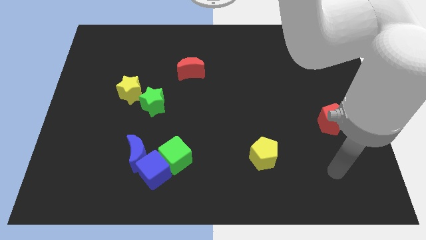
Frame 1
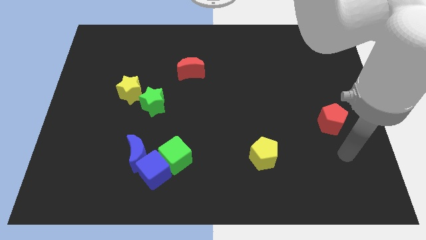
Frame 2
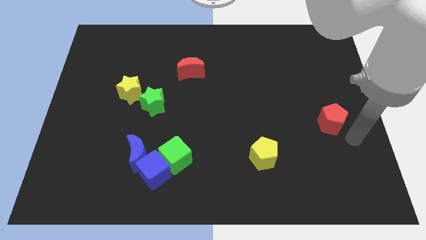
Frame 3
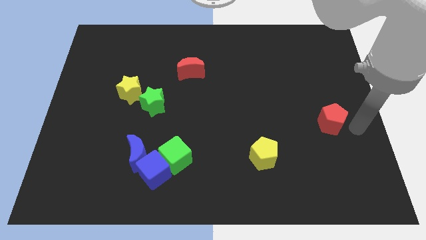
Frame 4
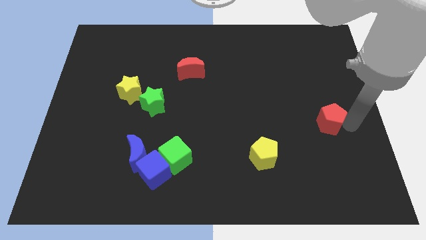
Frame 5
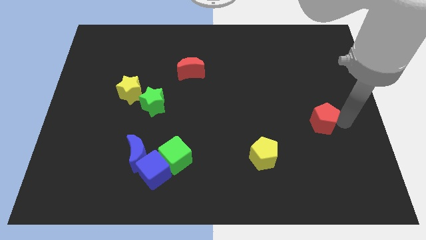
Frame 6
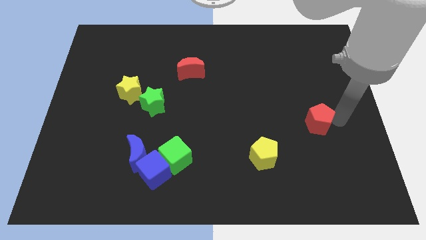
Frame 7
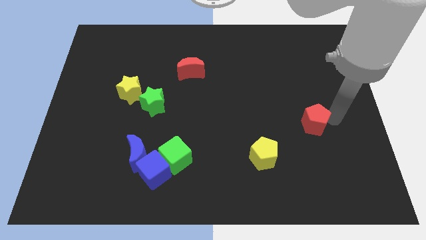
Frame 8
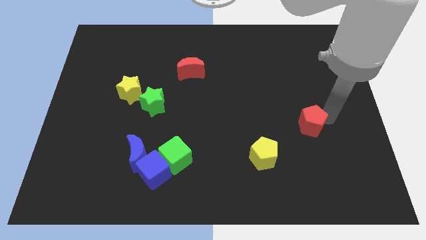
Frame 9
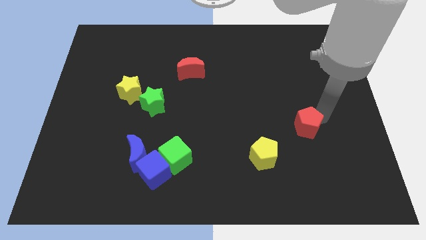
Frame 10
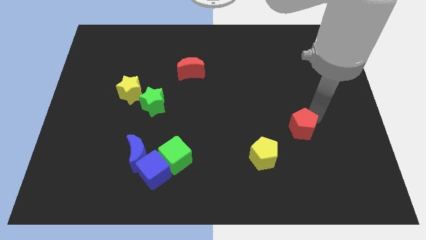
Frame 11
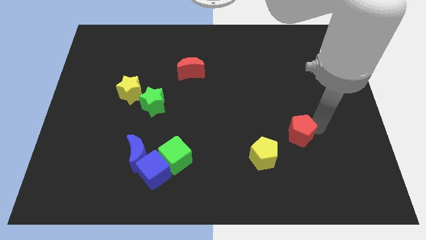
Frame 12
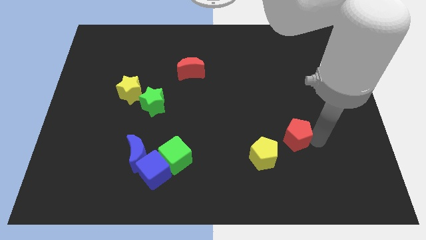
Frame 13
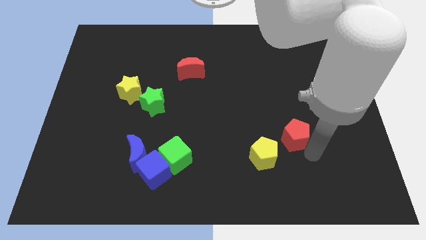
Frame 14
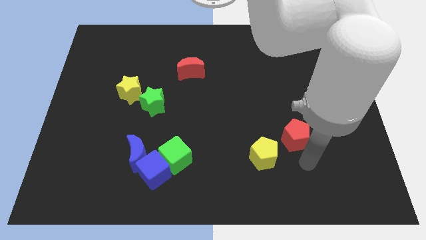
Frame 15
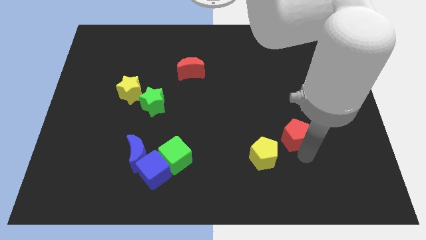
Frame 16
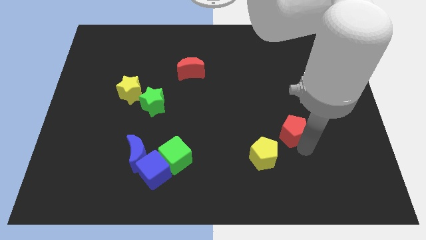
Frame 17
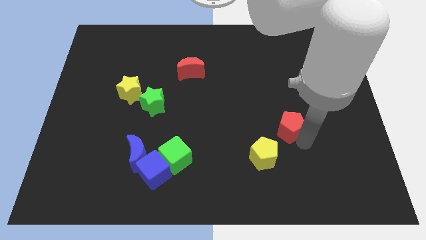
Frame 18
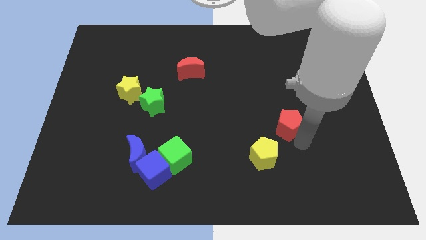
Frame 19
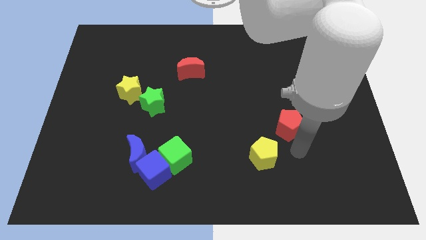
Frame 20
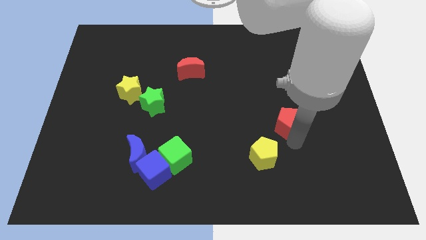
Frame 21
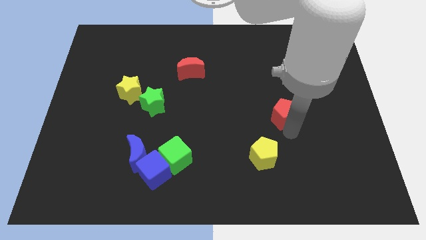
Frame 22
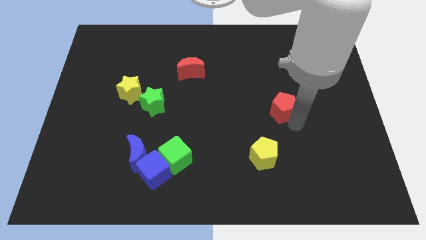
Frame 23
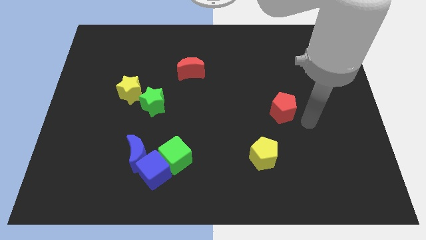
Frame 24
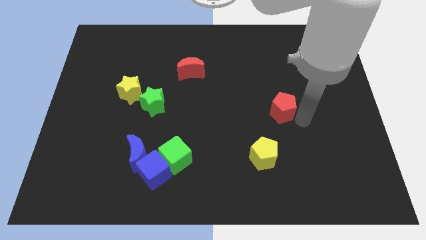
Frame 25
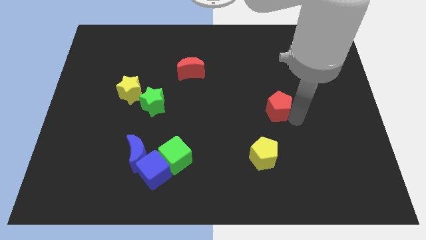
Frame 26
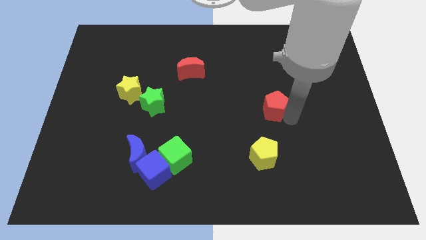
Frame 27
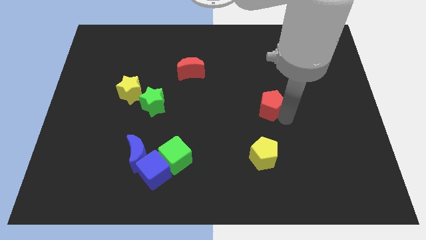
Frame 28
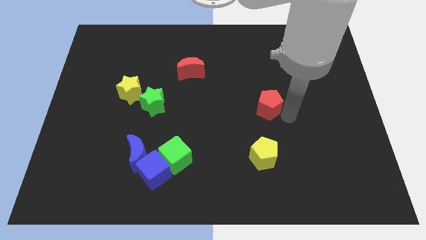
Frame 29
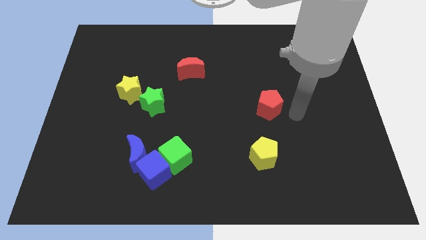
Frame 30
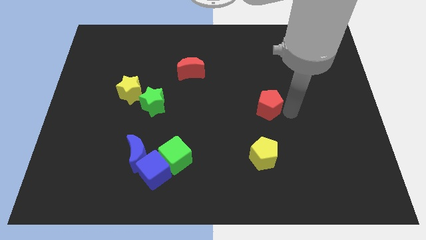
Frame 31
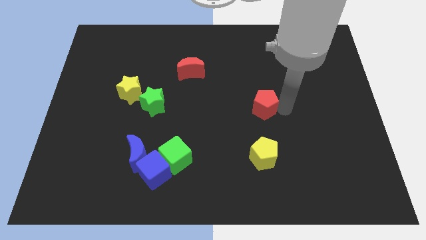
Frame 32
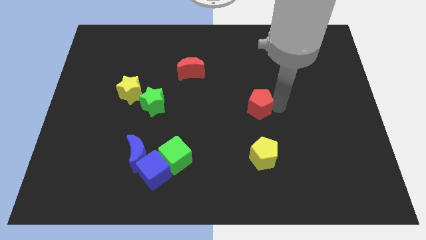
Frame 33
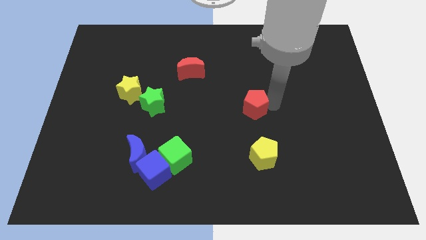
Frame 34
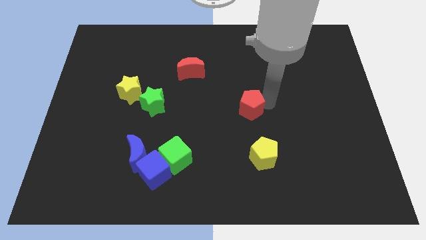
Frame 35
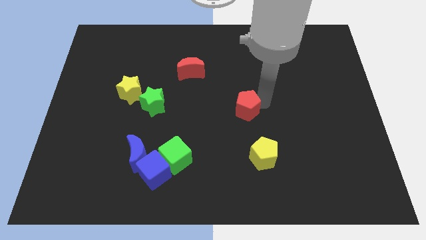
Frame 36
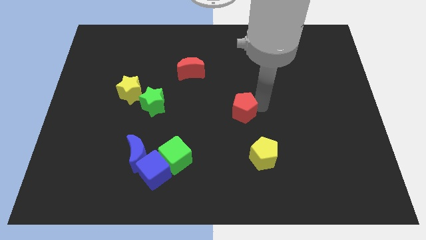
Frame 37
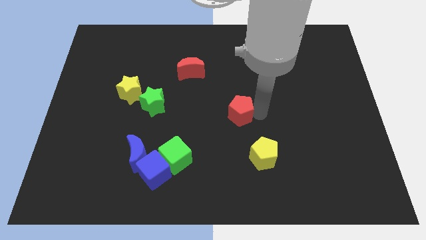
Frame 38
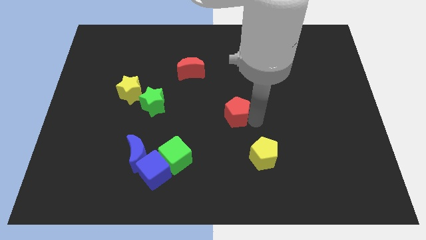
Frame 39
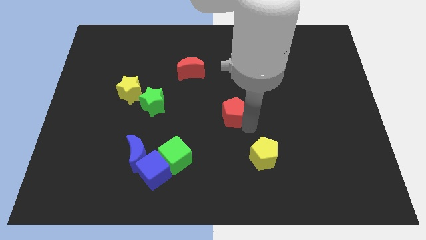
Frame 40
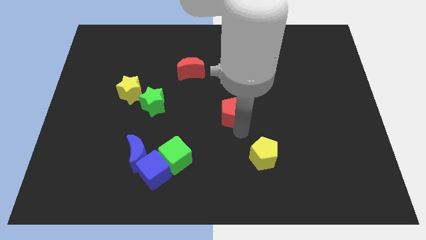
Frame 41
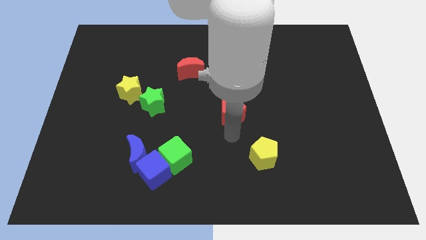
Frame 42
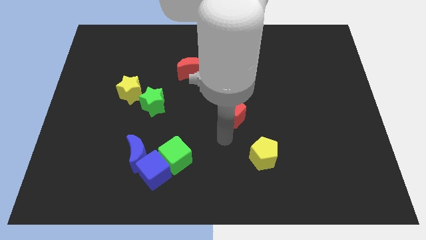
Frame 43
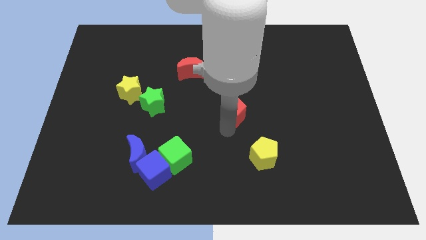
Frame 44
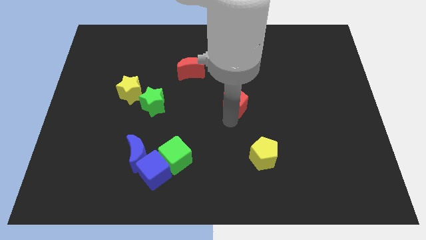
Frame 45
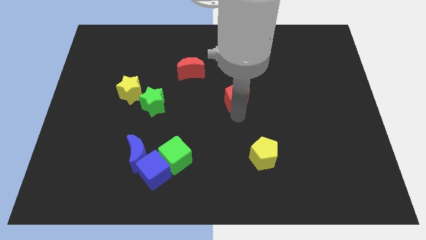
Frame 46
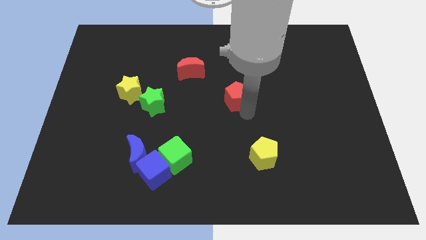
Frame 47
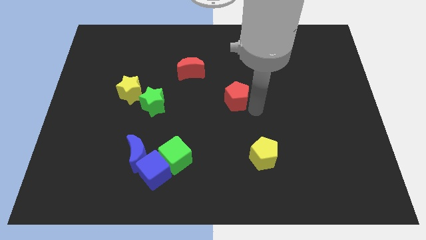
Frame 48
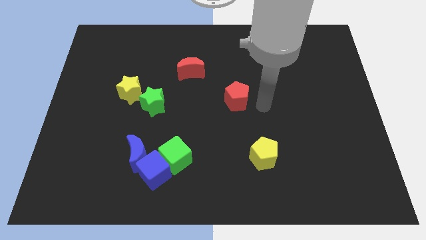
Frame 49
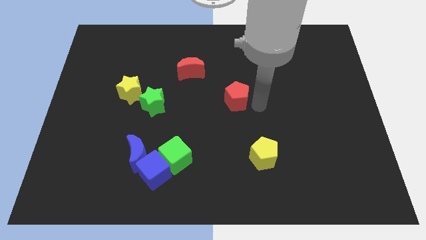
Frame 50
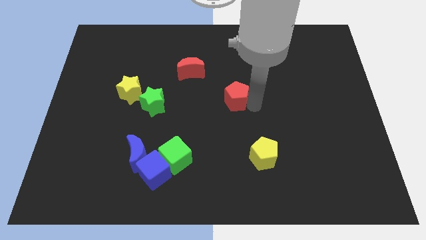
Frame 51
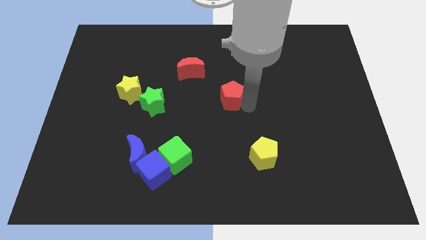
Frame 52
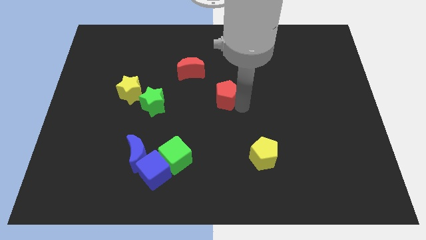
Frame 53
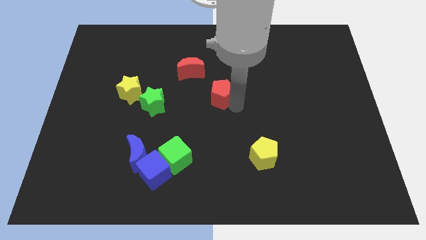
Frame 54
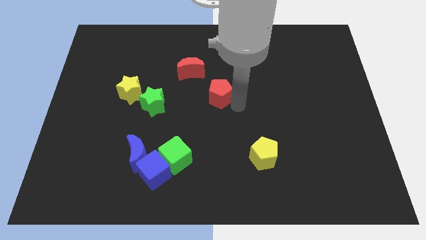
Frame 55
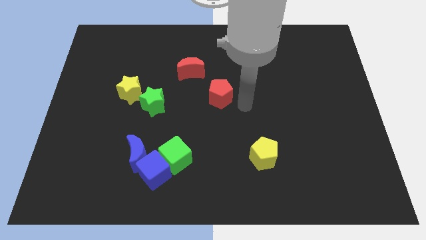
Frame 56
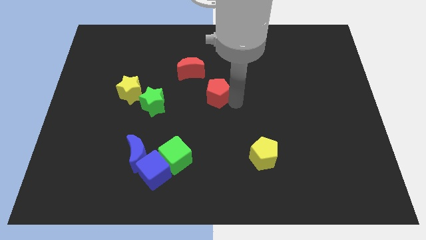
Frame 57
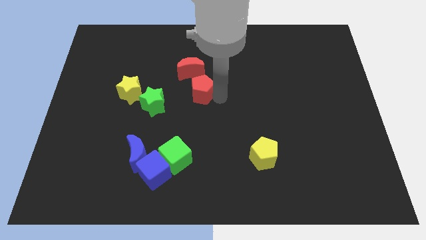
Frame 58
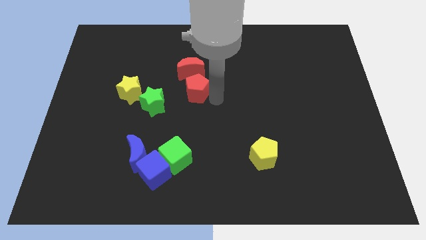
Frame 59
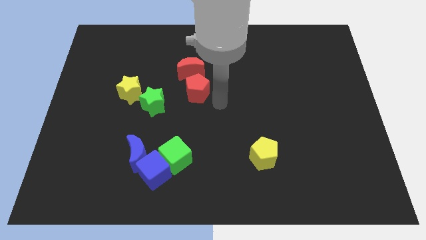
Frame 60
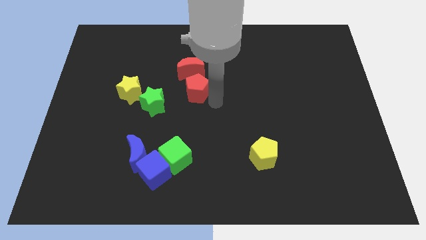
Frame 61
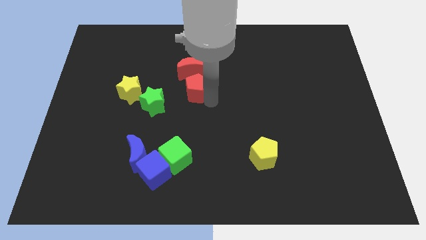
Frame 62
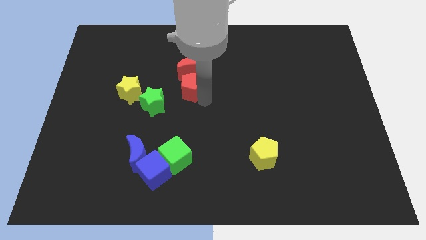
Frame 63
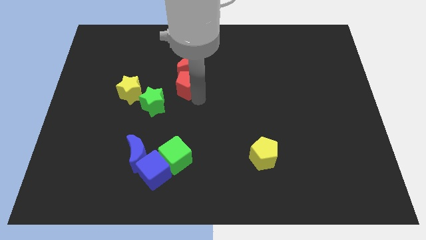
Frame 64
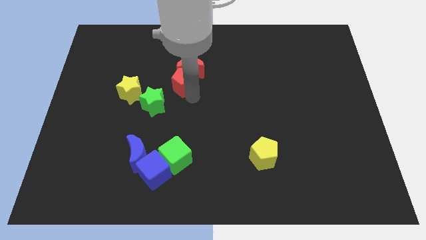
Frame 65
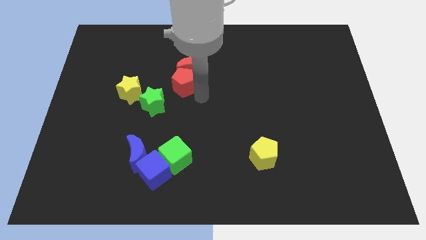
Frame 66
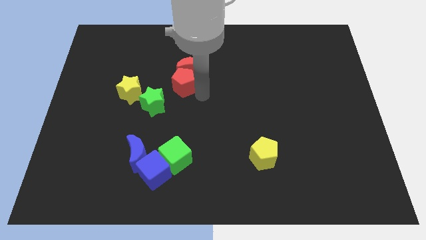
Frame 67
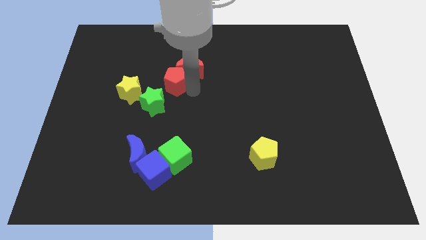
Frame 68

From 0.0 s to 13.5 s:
push the red pentagon to the left of the red moon

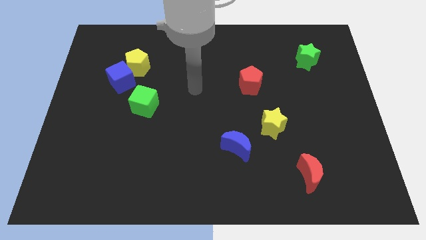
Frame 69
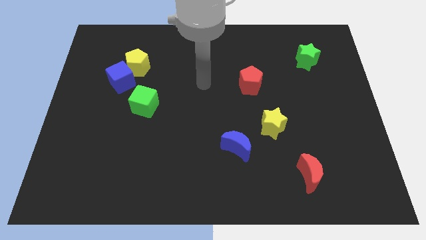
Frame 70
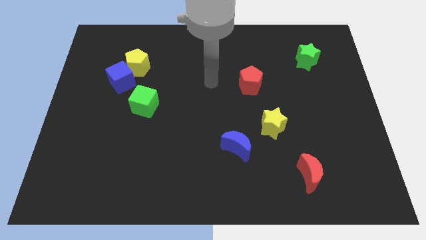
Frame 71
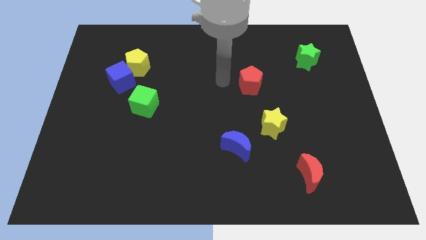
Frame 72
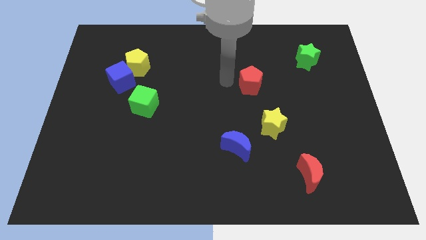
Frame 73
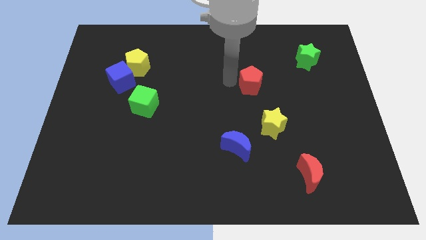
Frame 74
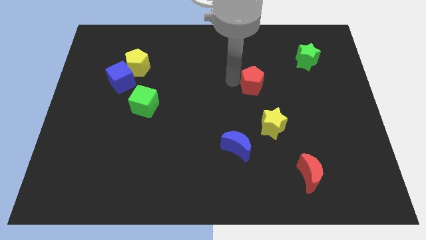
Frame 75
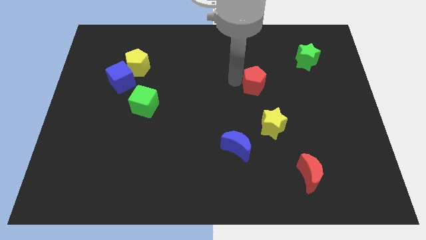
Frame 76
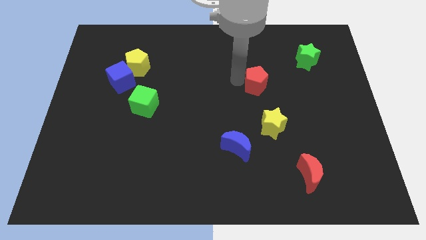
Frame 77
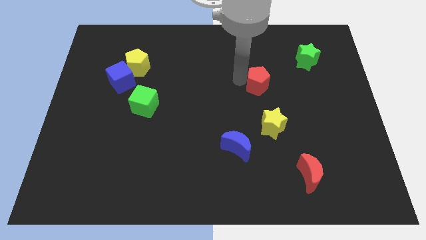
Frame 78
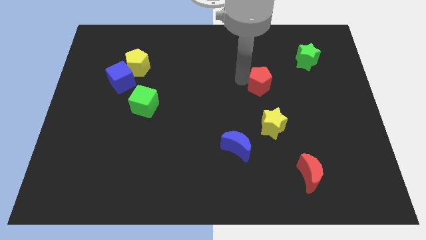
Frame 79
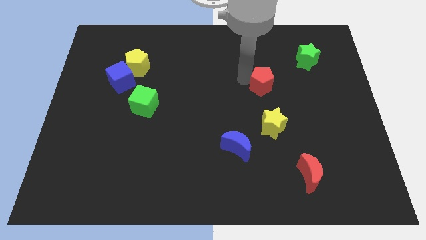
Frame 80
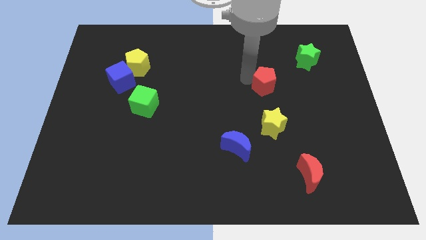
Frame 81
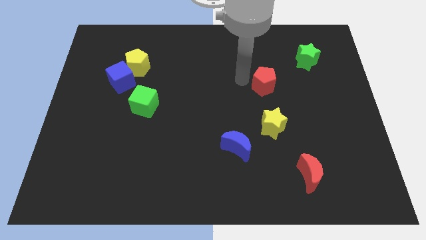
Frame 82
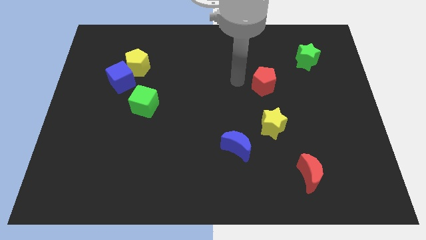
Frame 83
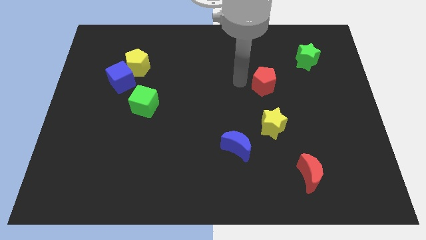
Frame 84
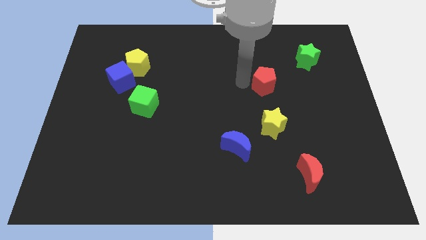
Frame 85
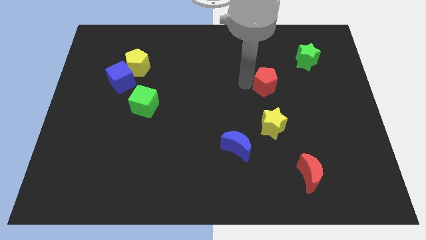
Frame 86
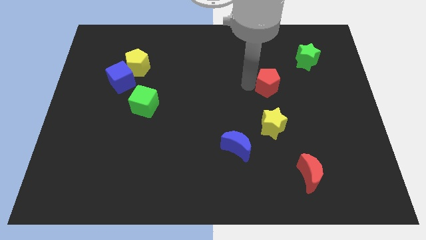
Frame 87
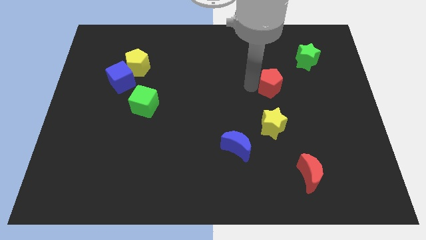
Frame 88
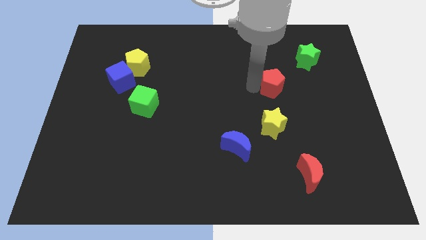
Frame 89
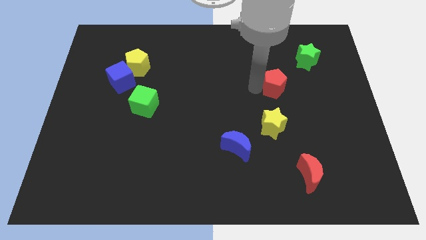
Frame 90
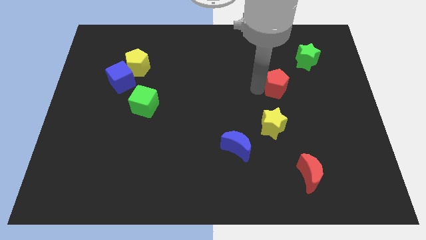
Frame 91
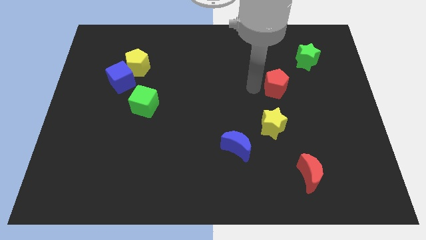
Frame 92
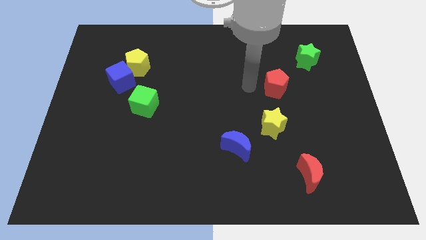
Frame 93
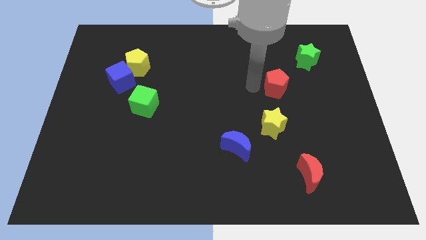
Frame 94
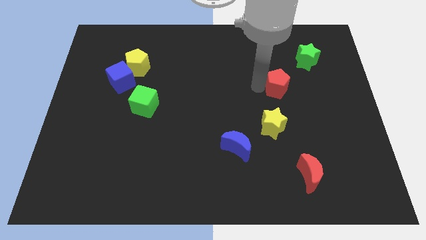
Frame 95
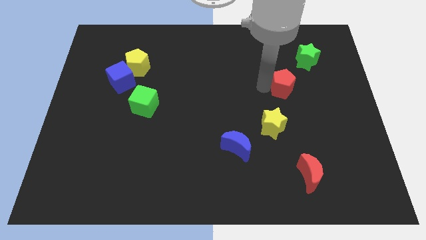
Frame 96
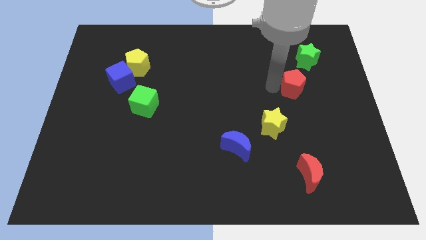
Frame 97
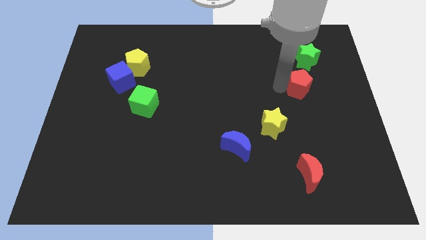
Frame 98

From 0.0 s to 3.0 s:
move the red pentagon below the green star
